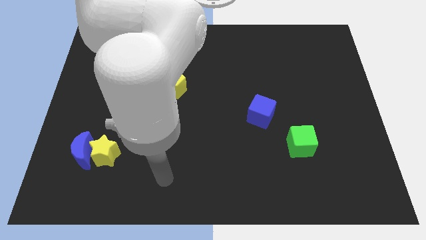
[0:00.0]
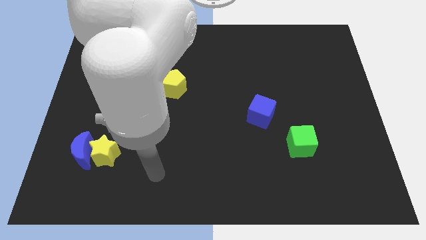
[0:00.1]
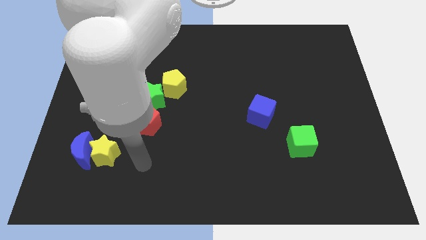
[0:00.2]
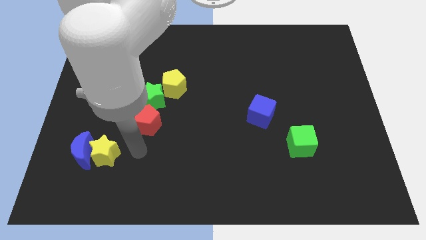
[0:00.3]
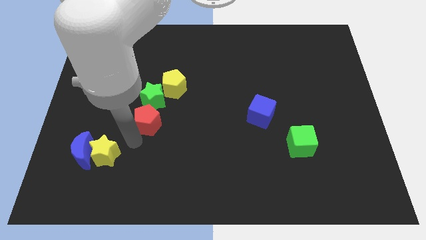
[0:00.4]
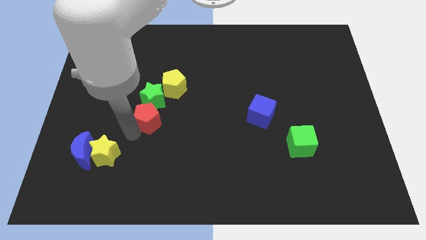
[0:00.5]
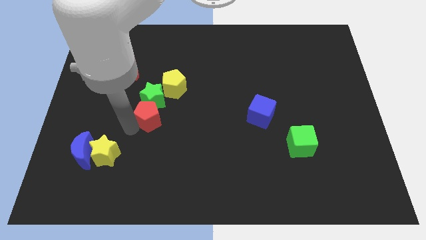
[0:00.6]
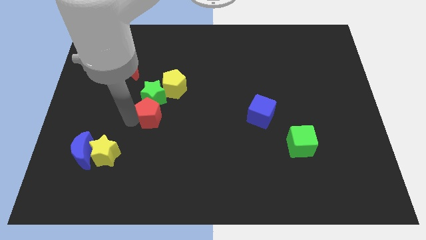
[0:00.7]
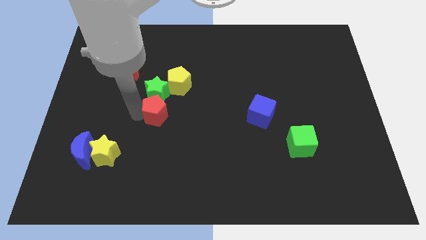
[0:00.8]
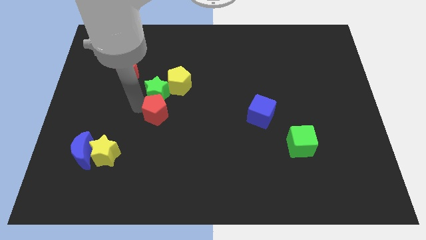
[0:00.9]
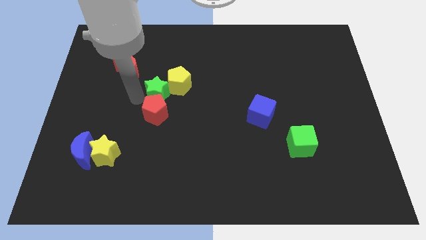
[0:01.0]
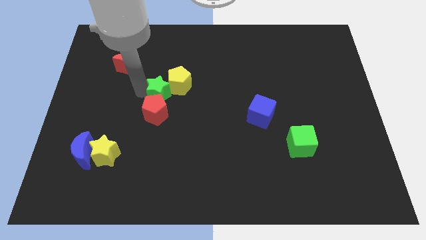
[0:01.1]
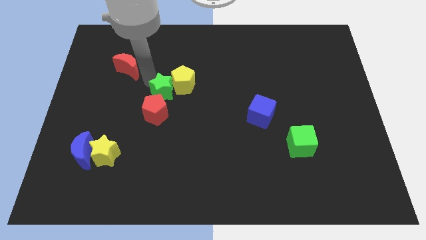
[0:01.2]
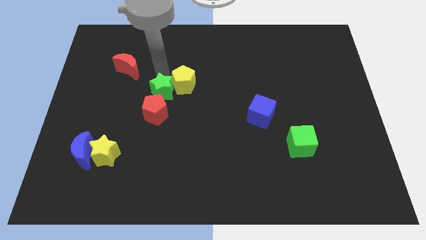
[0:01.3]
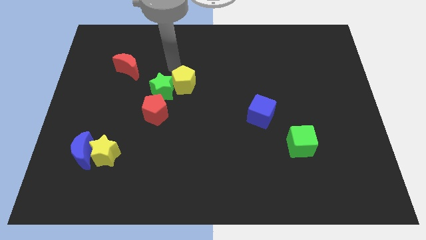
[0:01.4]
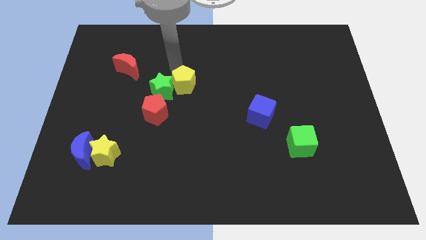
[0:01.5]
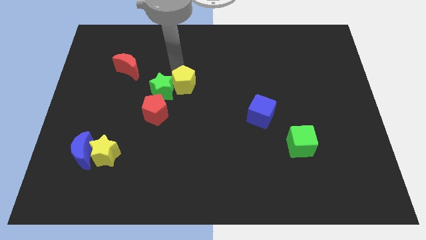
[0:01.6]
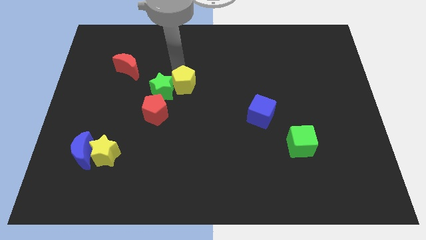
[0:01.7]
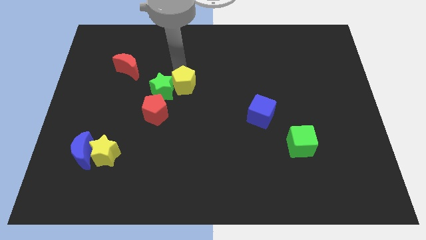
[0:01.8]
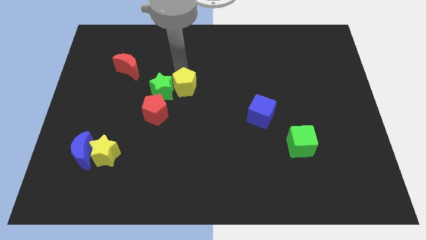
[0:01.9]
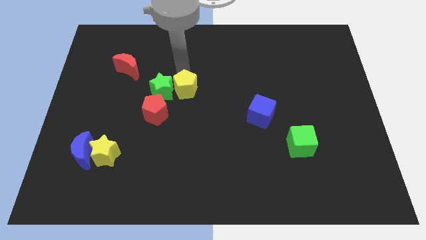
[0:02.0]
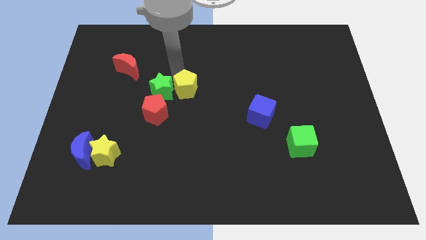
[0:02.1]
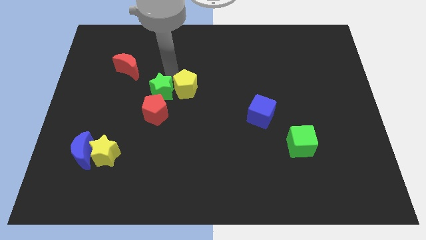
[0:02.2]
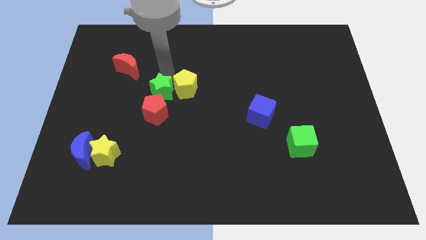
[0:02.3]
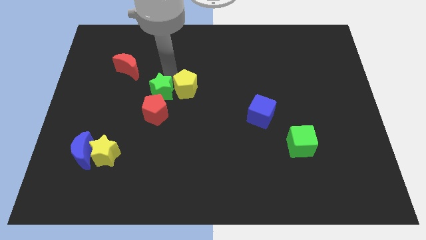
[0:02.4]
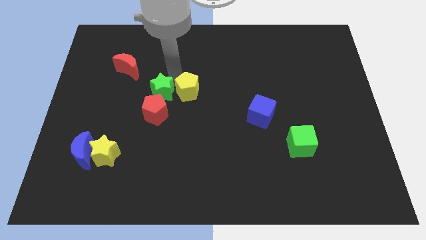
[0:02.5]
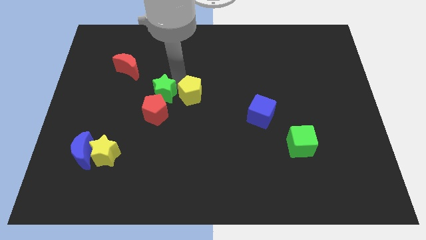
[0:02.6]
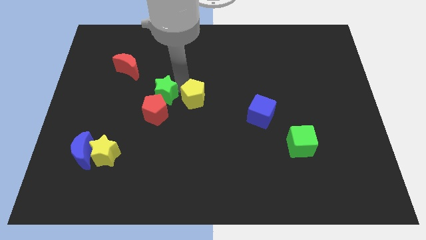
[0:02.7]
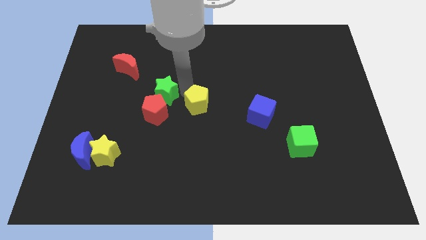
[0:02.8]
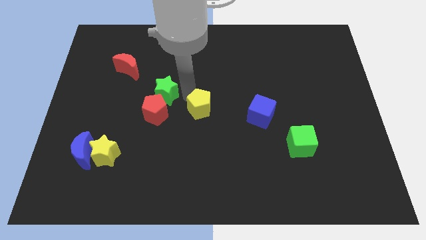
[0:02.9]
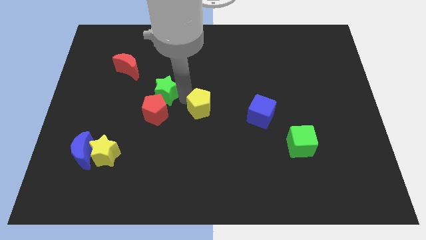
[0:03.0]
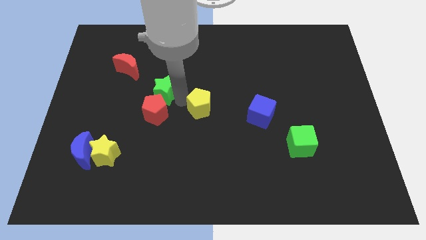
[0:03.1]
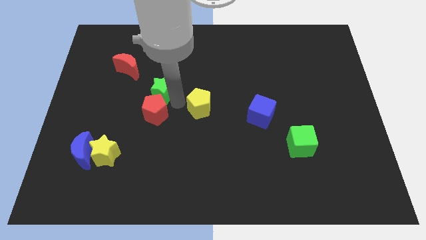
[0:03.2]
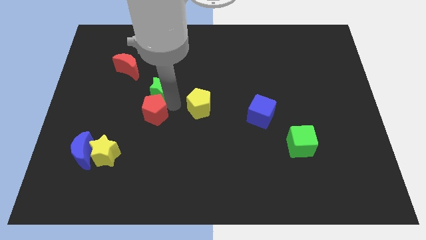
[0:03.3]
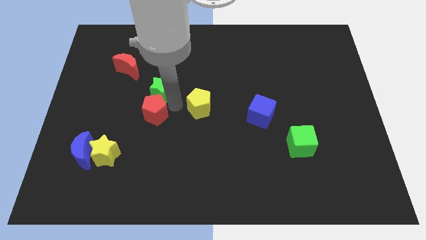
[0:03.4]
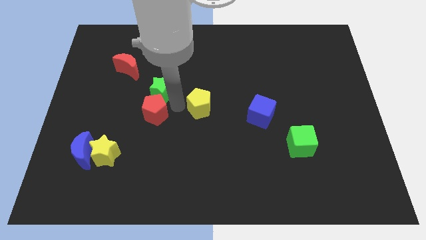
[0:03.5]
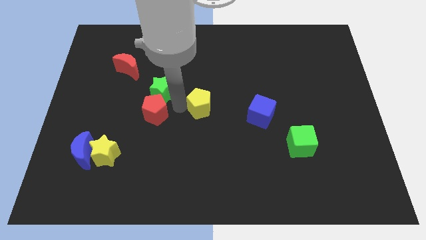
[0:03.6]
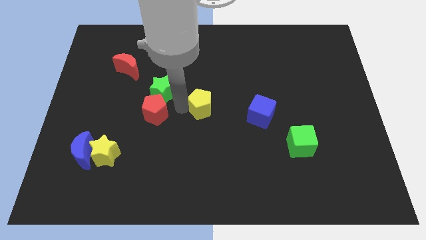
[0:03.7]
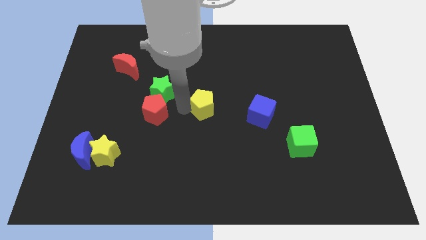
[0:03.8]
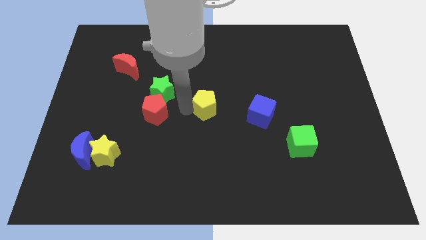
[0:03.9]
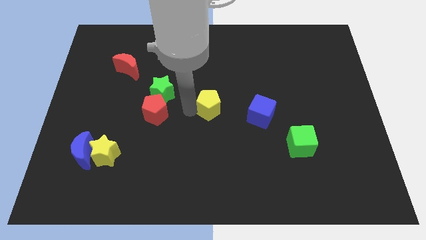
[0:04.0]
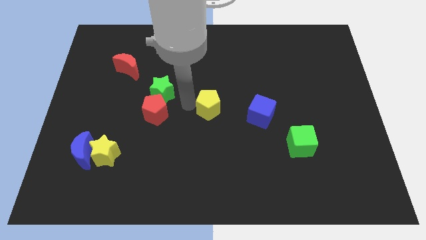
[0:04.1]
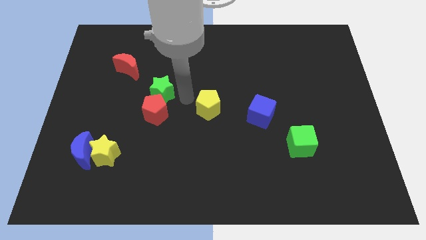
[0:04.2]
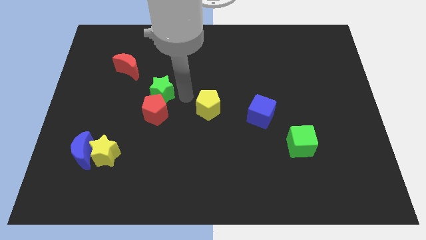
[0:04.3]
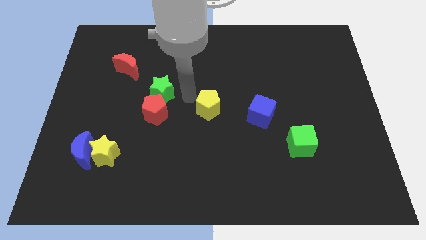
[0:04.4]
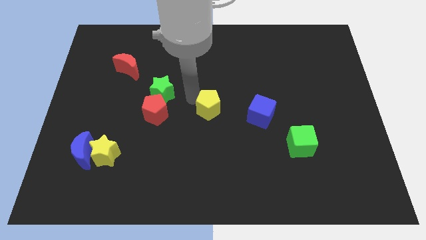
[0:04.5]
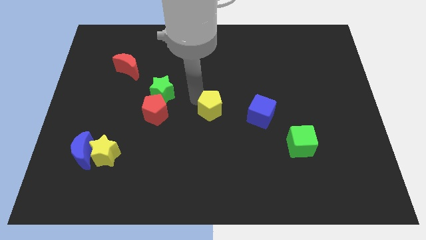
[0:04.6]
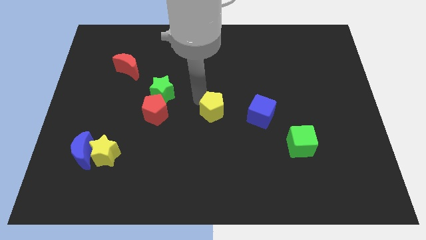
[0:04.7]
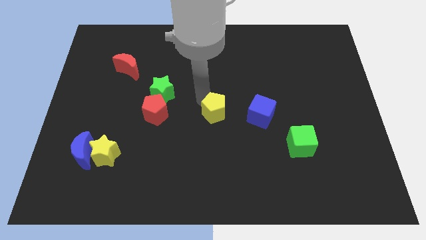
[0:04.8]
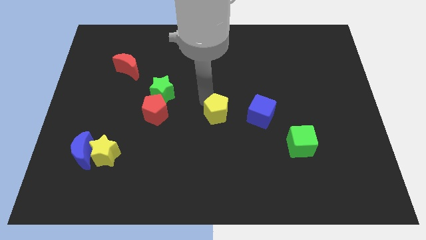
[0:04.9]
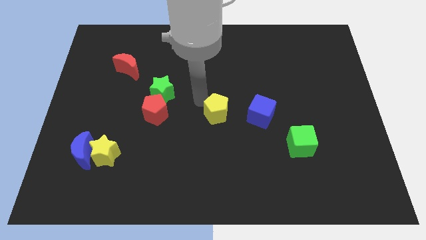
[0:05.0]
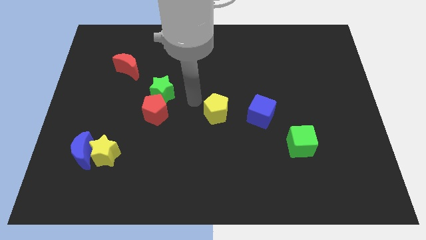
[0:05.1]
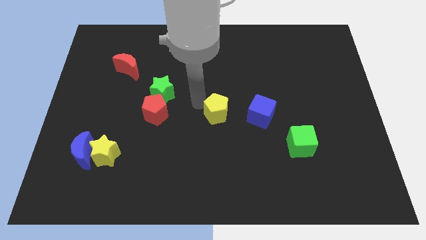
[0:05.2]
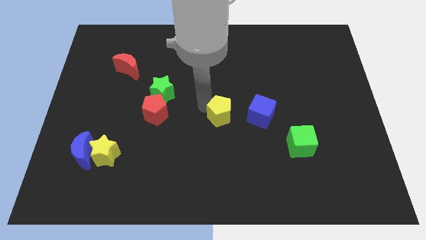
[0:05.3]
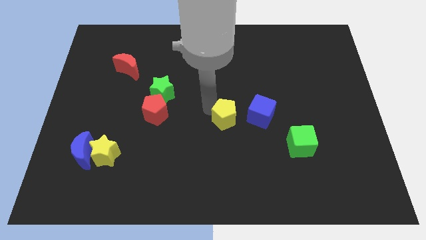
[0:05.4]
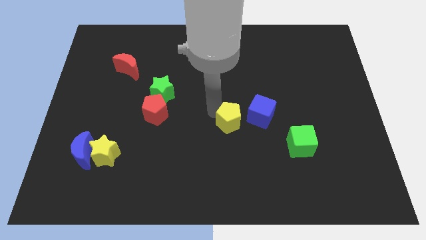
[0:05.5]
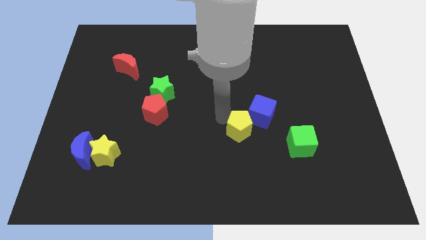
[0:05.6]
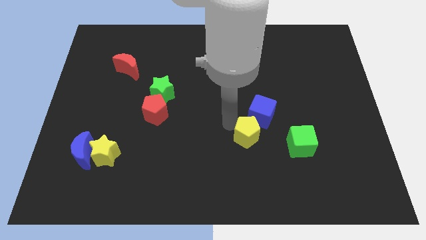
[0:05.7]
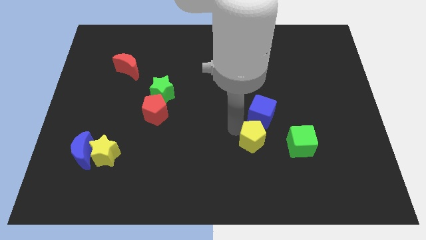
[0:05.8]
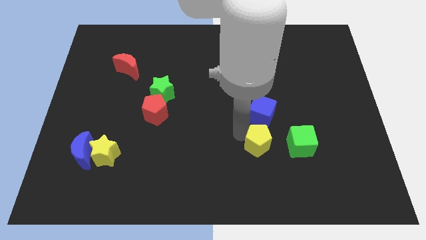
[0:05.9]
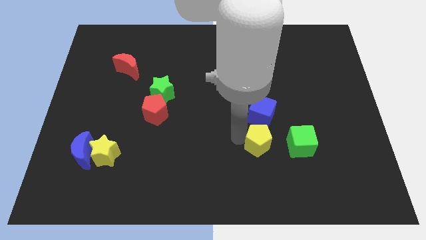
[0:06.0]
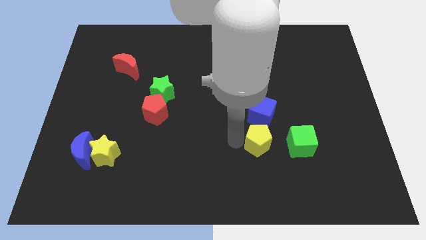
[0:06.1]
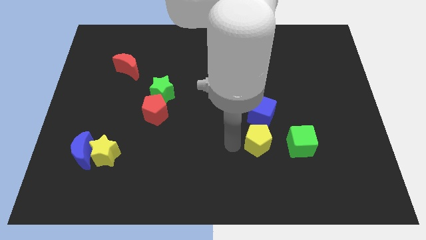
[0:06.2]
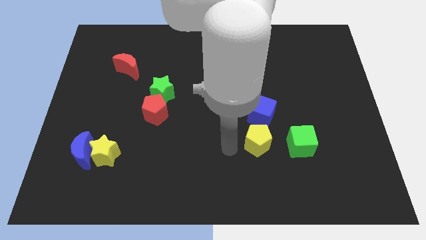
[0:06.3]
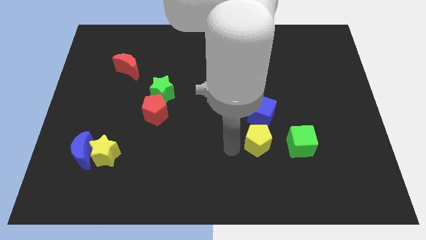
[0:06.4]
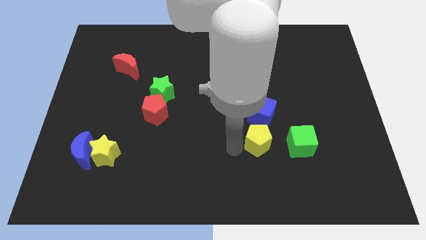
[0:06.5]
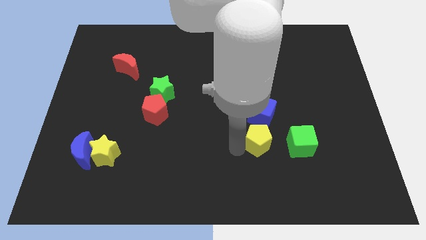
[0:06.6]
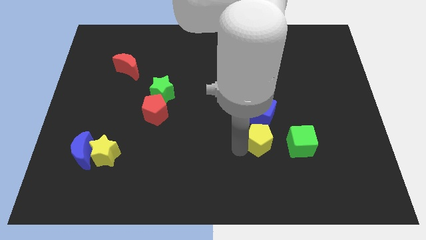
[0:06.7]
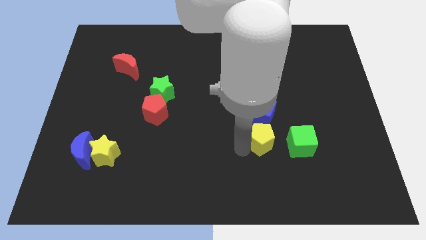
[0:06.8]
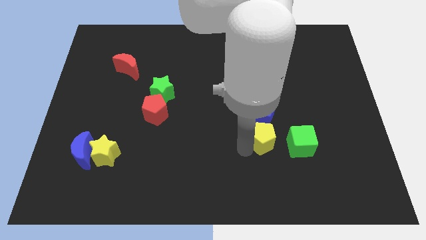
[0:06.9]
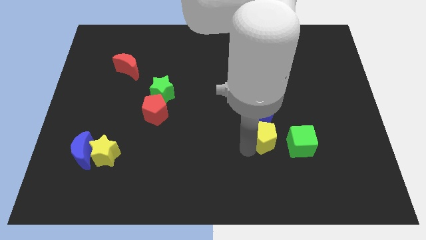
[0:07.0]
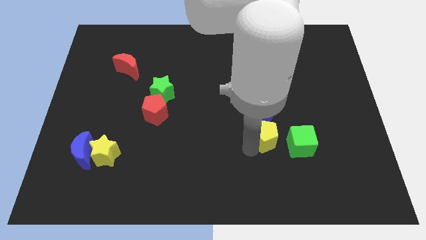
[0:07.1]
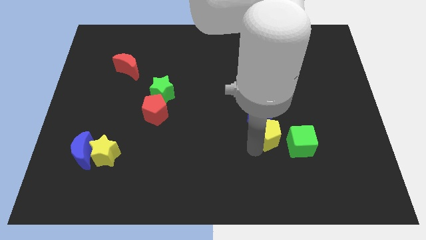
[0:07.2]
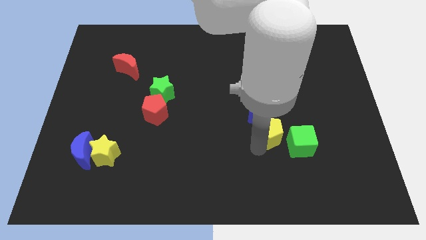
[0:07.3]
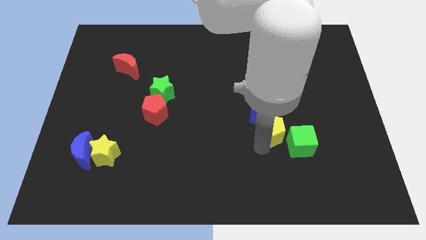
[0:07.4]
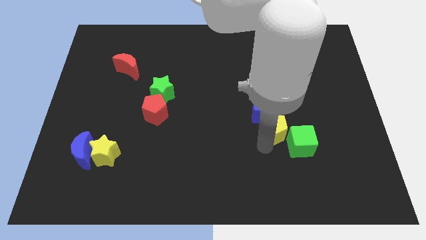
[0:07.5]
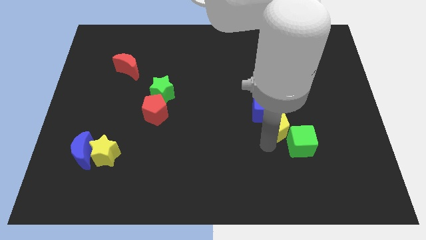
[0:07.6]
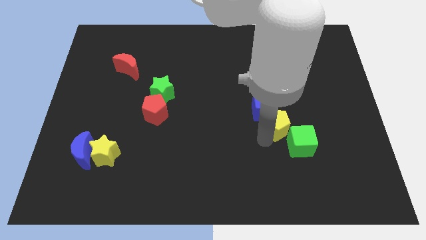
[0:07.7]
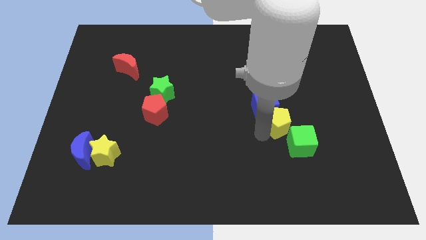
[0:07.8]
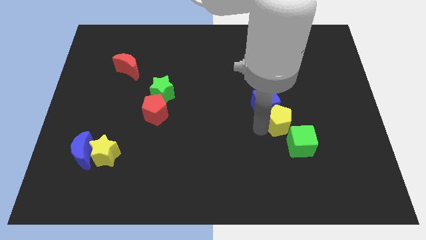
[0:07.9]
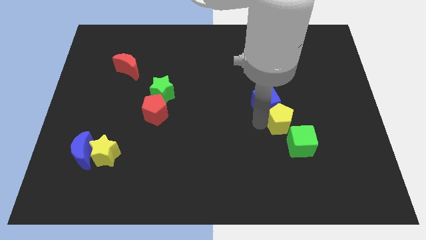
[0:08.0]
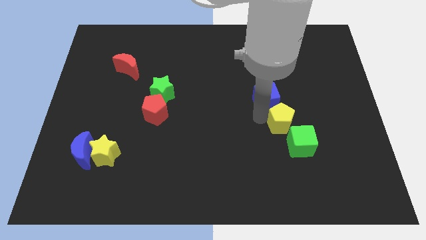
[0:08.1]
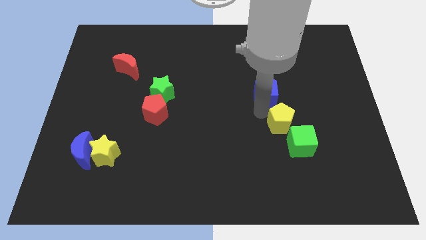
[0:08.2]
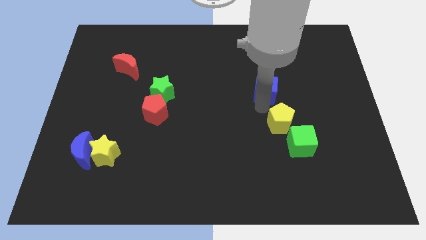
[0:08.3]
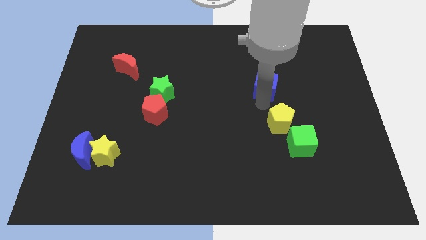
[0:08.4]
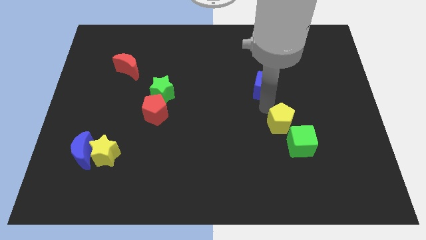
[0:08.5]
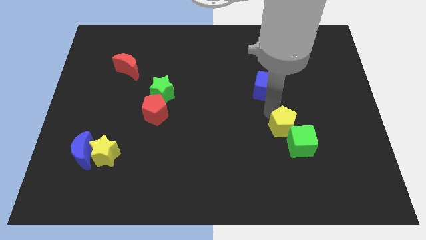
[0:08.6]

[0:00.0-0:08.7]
move the yellow pentagon next to the green cube
